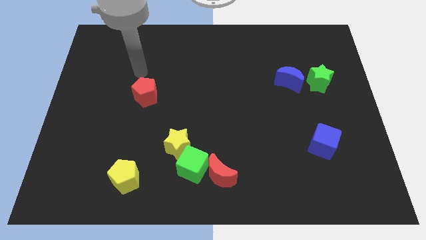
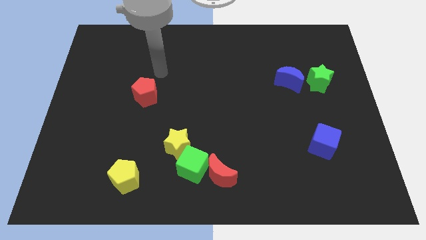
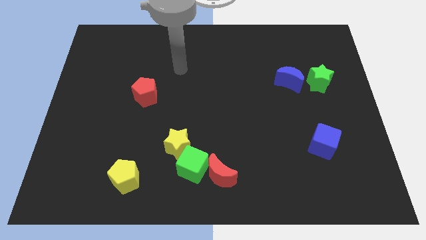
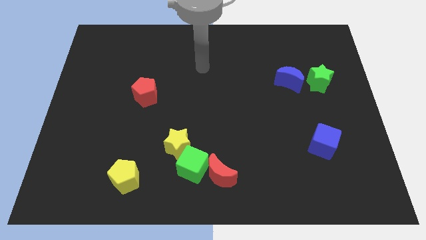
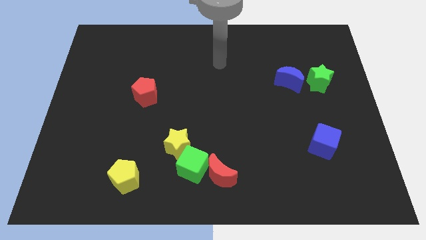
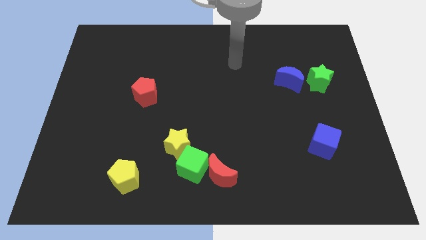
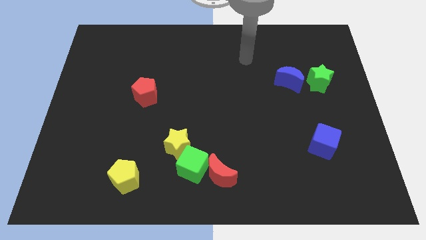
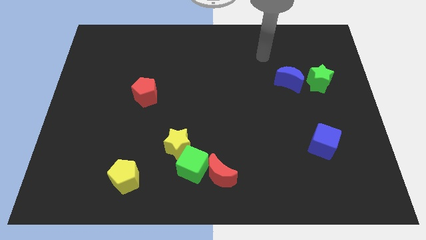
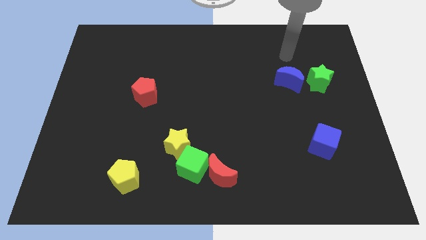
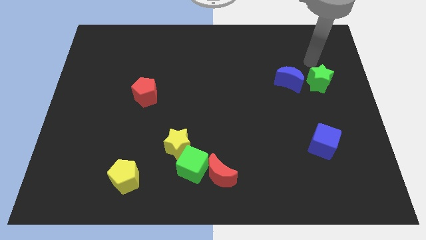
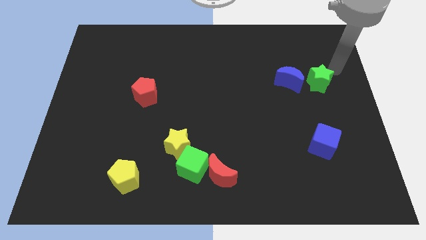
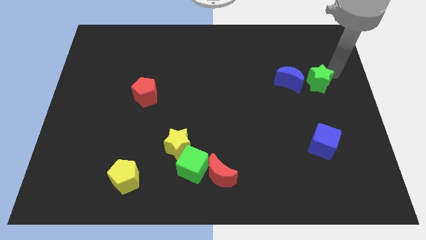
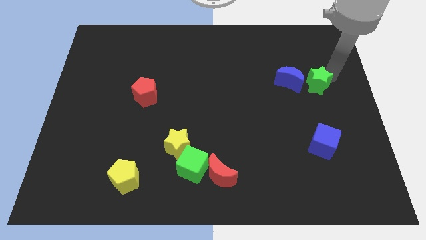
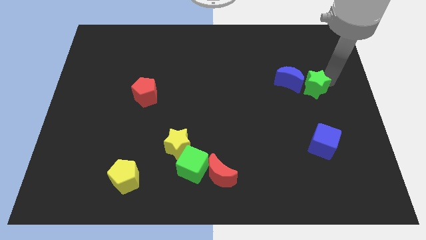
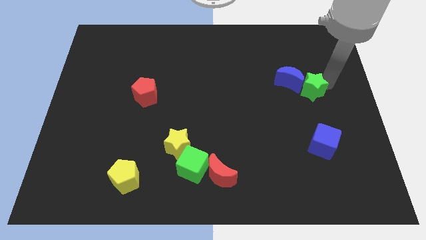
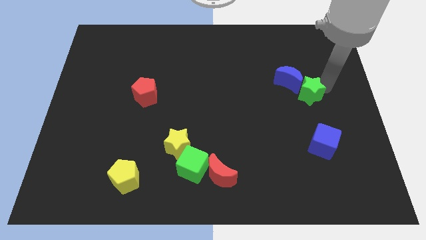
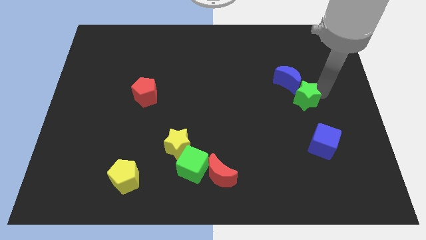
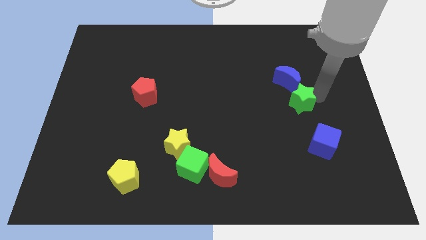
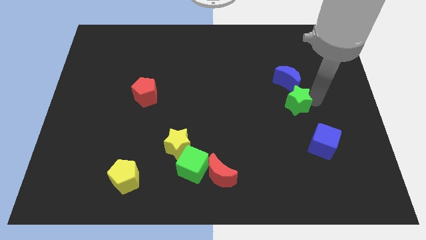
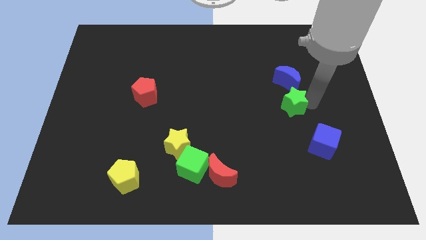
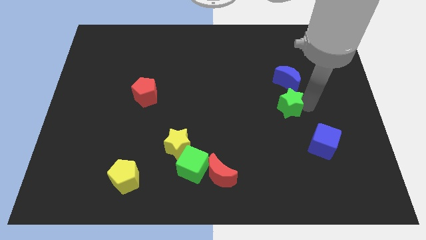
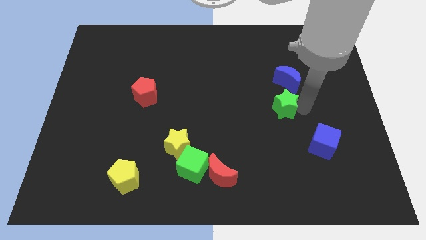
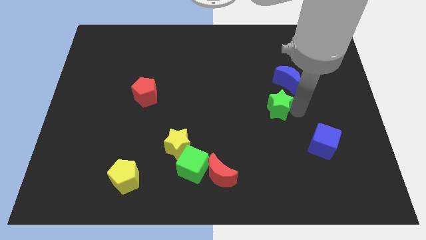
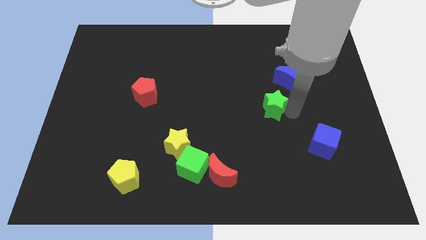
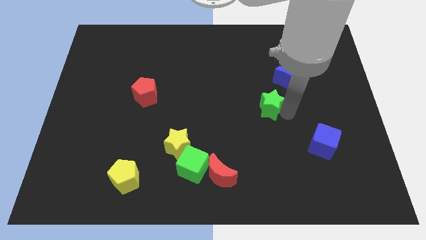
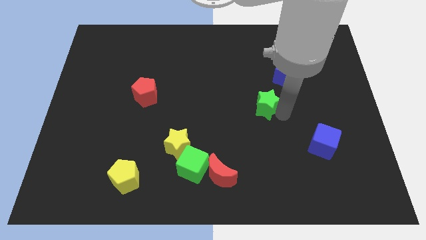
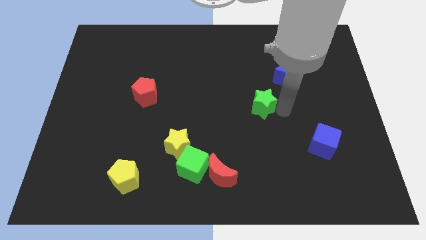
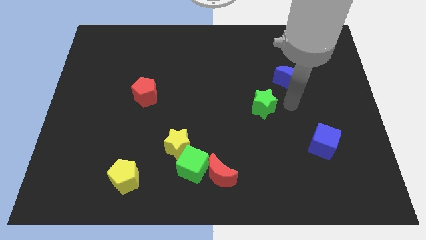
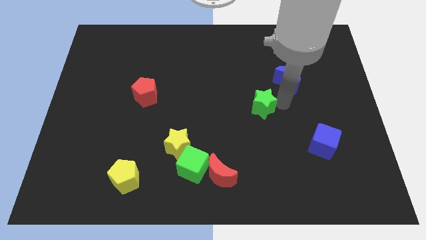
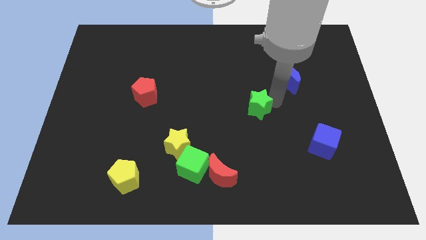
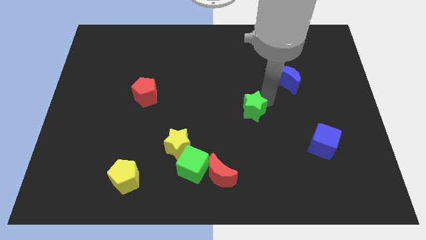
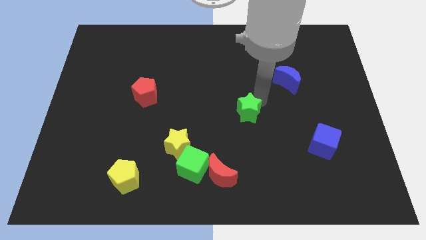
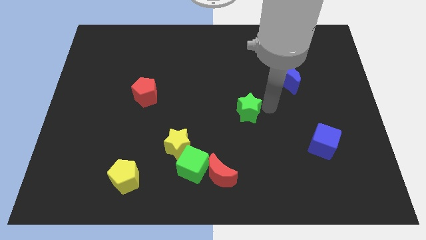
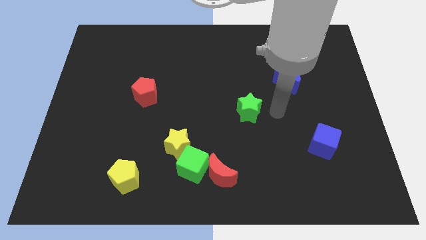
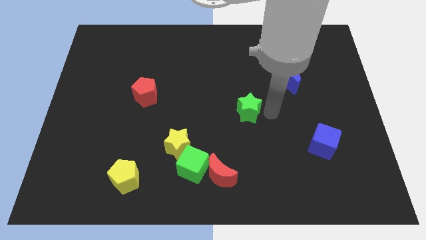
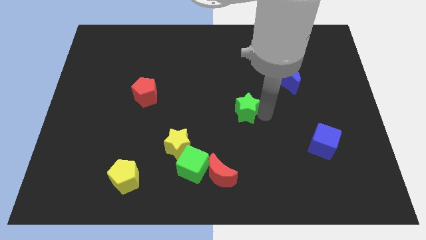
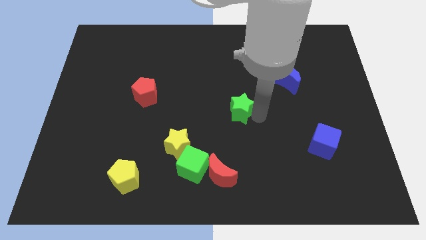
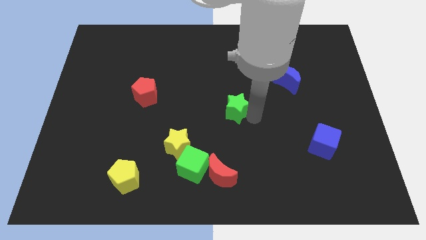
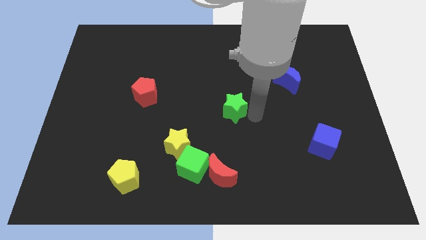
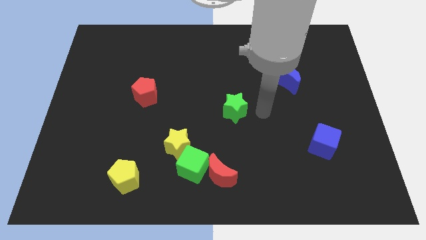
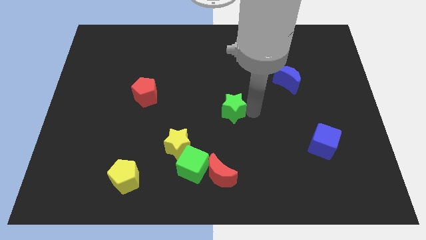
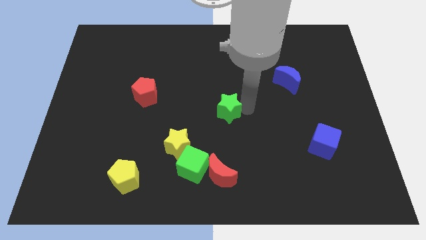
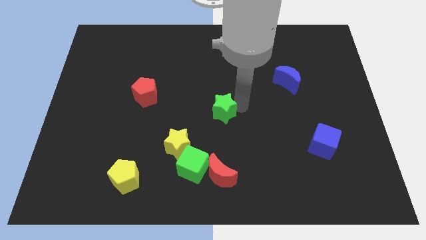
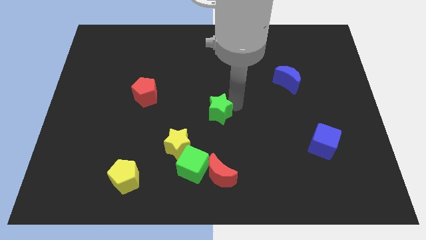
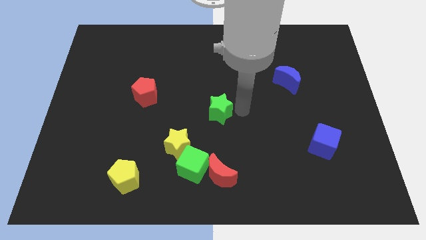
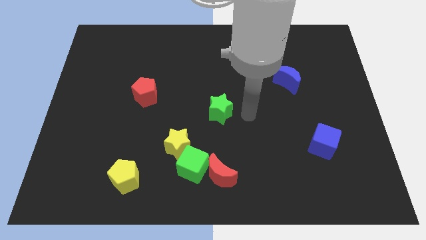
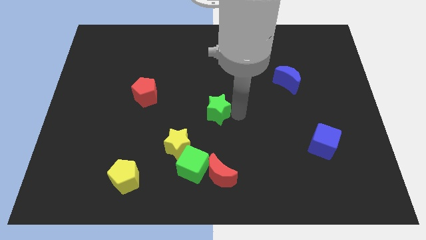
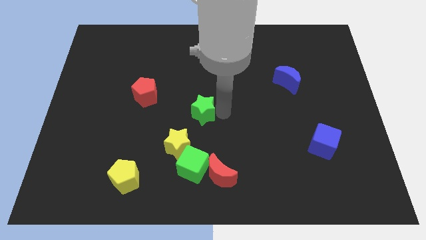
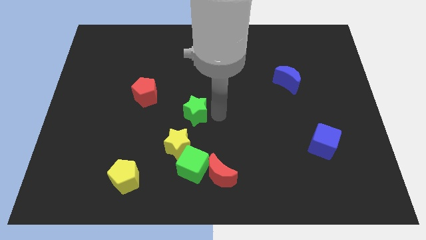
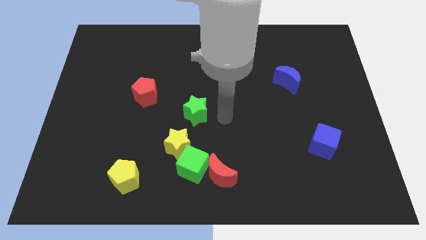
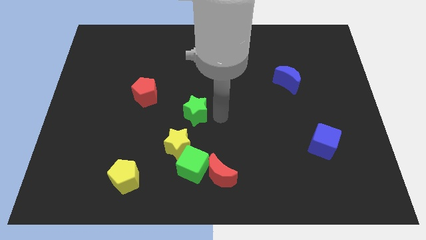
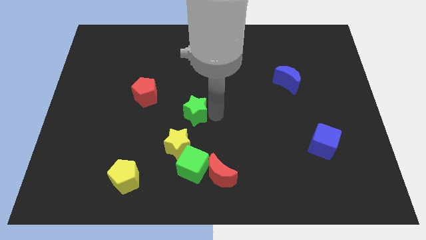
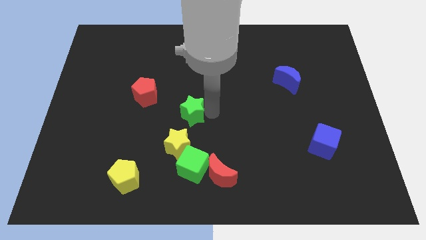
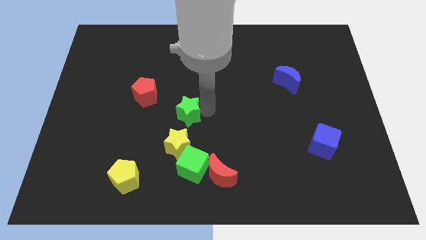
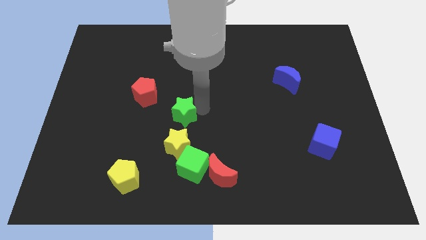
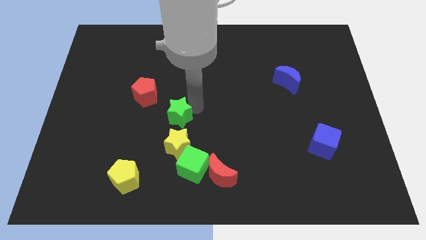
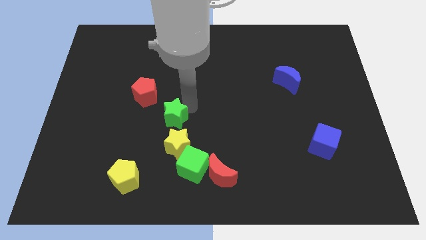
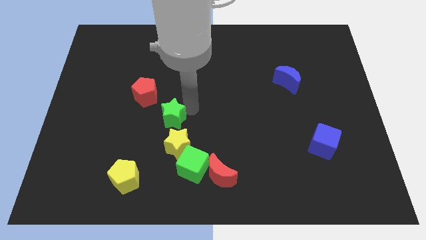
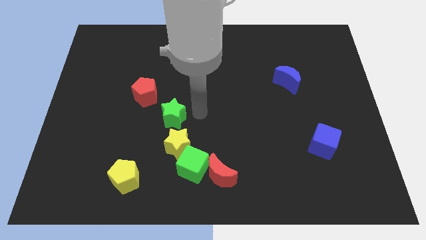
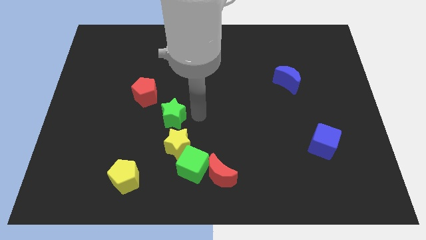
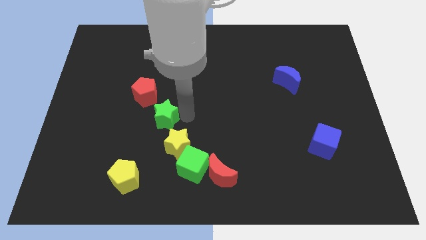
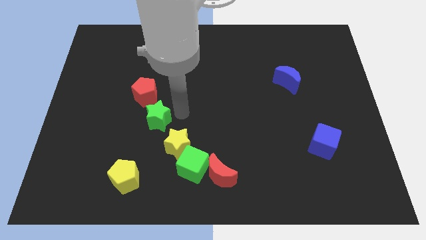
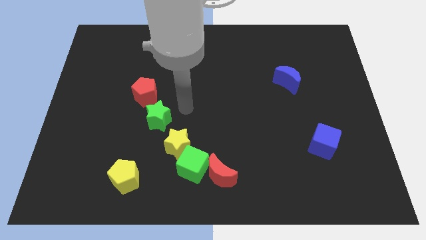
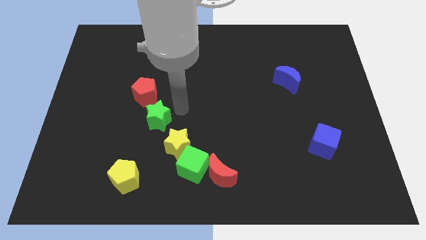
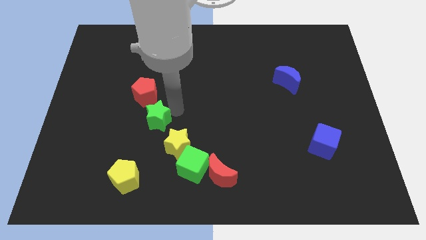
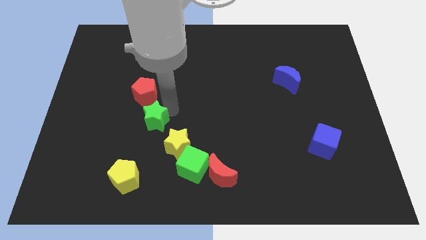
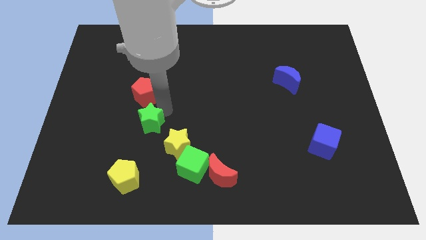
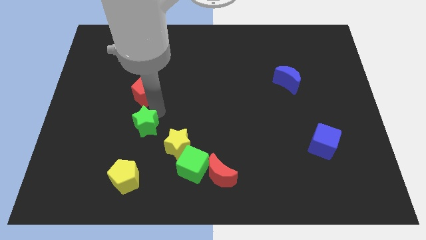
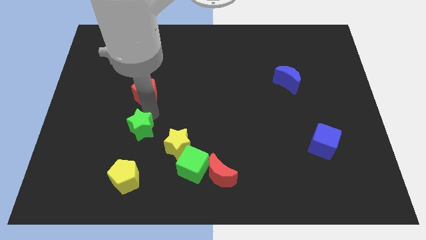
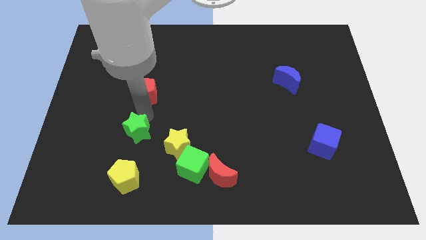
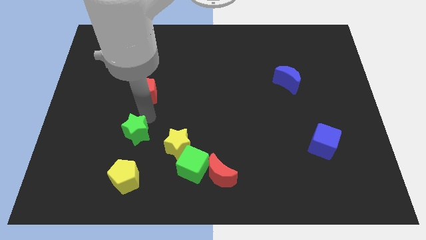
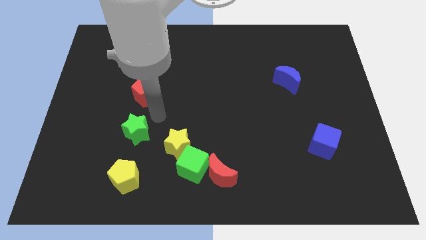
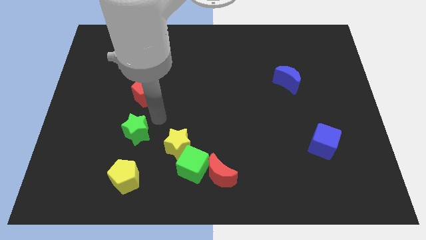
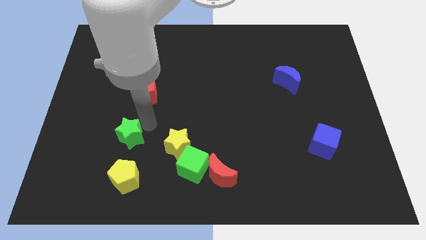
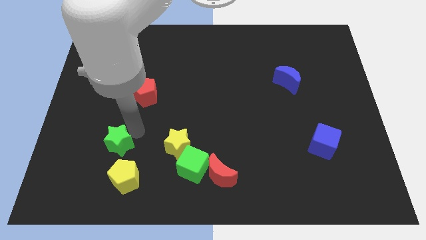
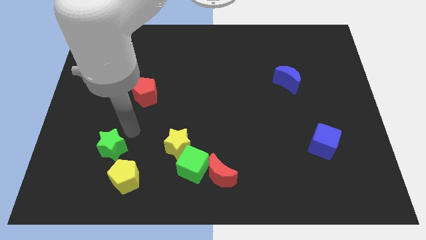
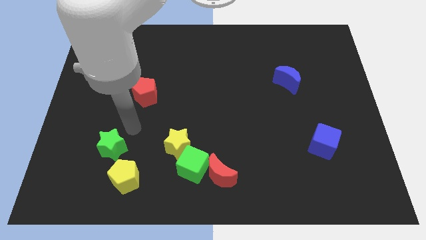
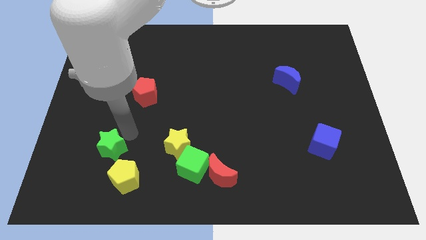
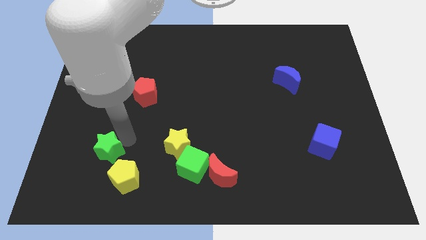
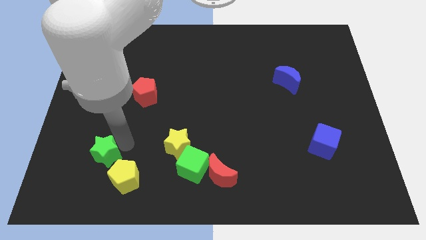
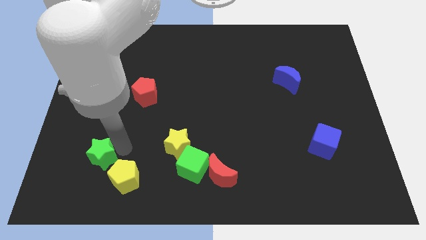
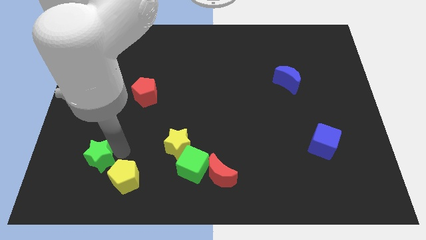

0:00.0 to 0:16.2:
move the green star left of the yellow pentagon
